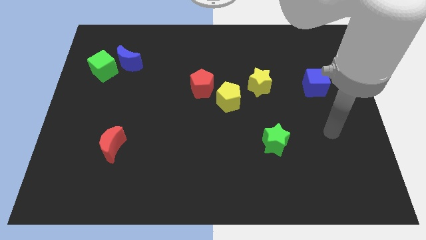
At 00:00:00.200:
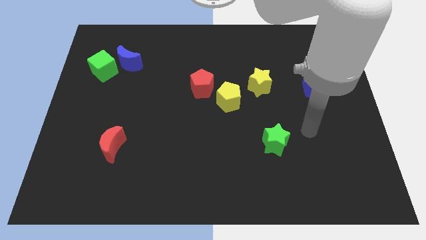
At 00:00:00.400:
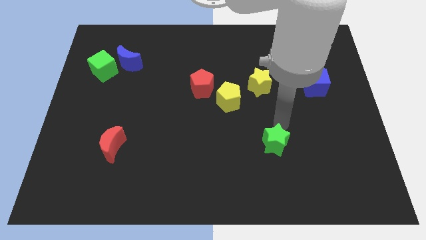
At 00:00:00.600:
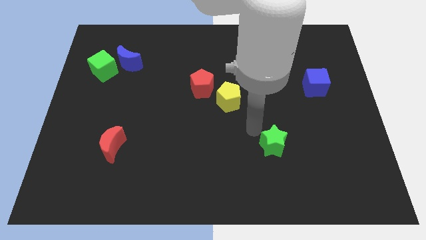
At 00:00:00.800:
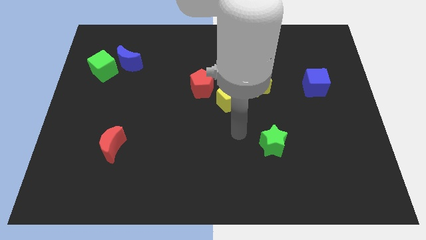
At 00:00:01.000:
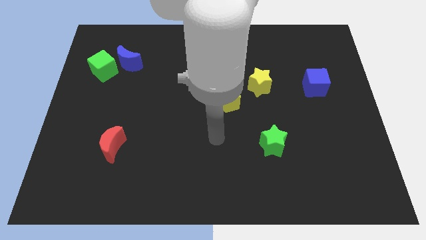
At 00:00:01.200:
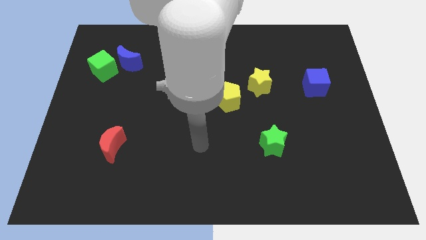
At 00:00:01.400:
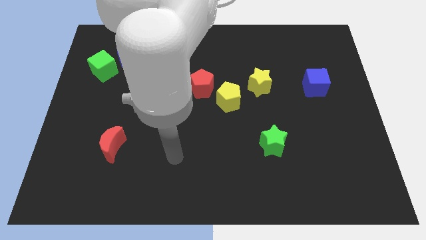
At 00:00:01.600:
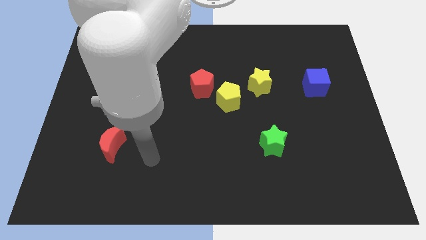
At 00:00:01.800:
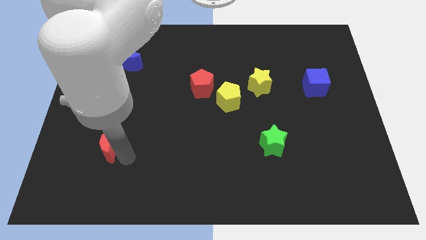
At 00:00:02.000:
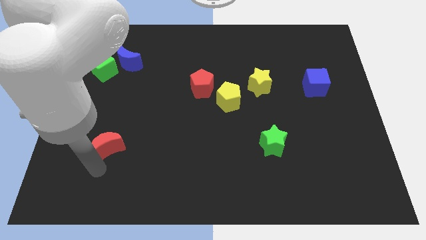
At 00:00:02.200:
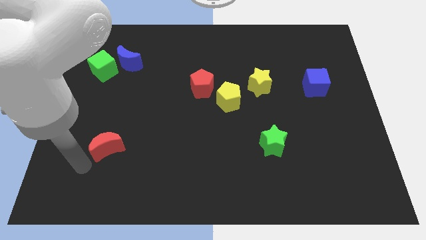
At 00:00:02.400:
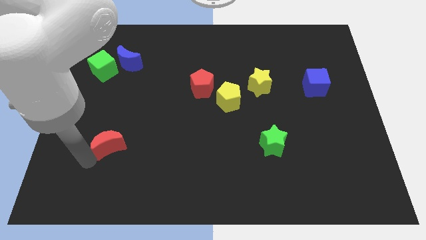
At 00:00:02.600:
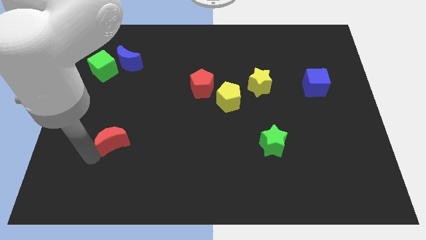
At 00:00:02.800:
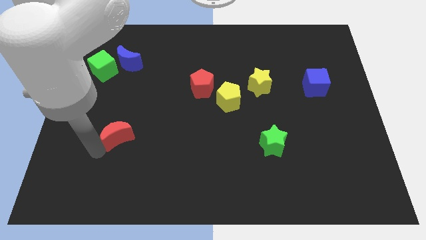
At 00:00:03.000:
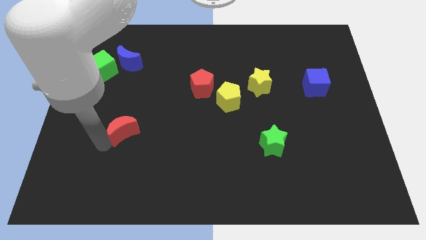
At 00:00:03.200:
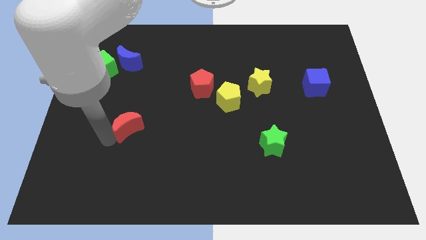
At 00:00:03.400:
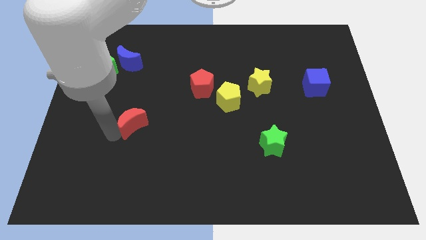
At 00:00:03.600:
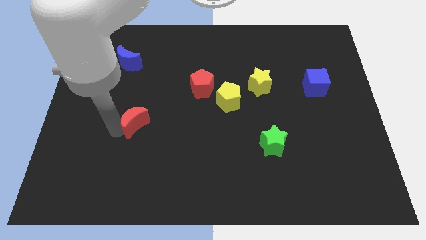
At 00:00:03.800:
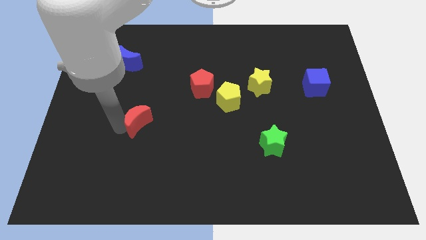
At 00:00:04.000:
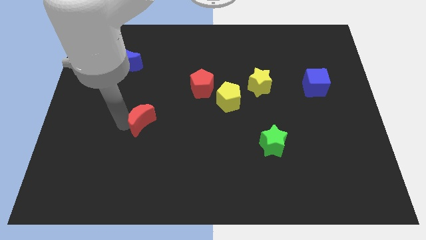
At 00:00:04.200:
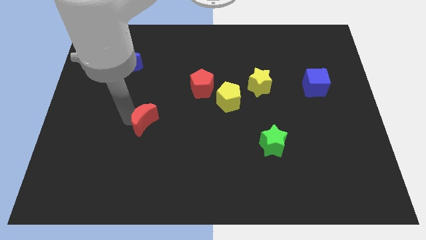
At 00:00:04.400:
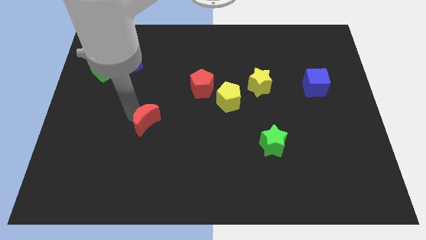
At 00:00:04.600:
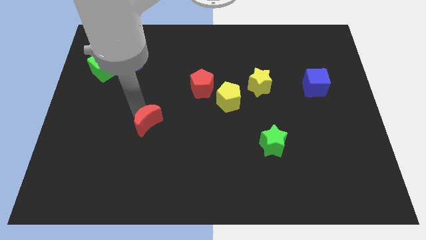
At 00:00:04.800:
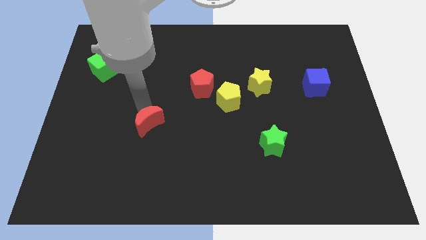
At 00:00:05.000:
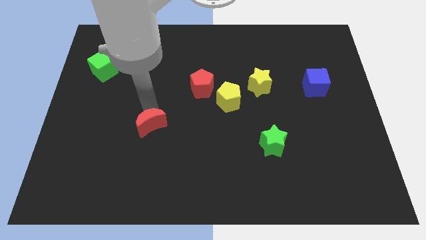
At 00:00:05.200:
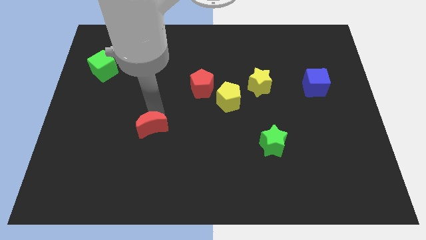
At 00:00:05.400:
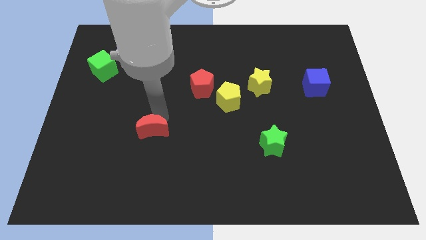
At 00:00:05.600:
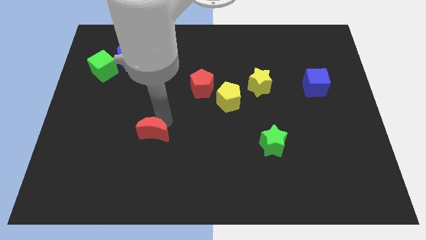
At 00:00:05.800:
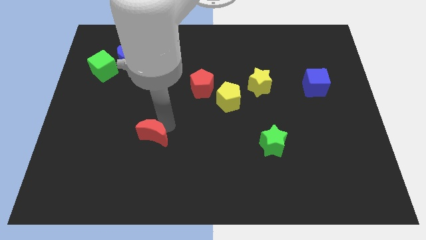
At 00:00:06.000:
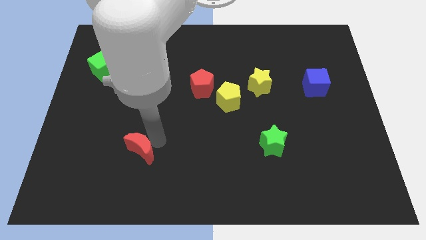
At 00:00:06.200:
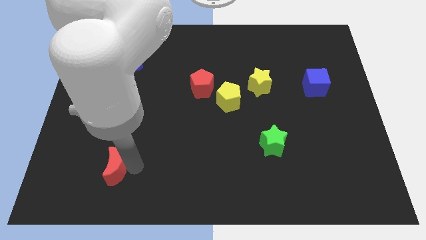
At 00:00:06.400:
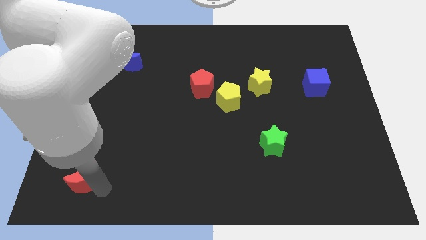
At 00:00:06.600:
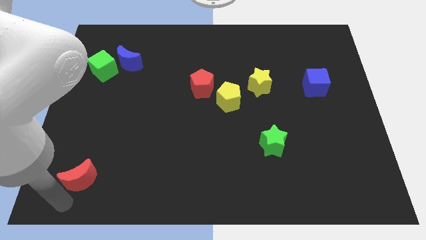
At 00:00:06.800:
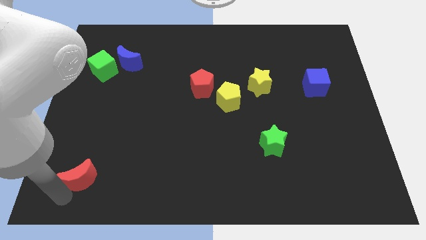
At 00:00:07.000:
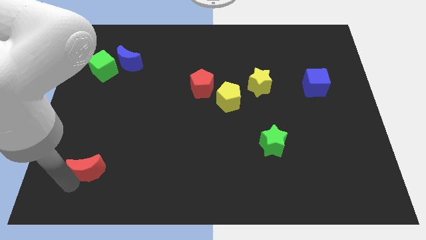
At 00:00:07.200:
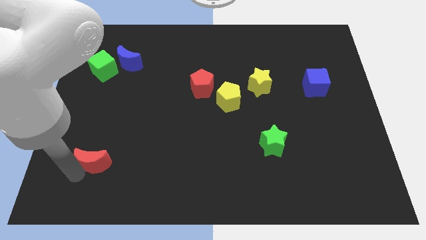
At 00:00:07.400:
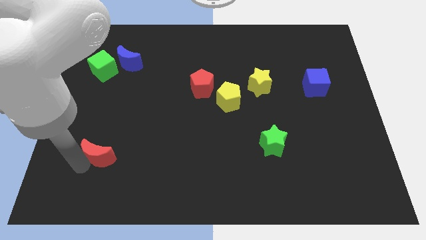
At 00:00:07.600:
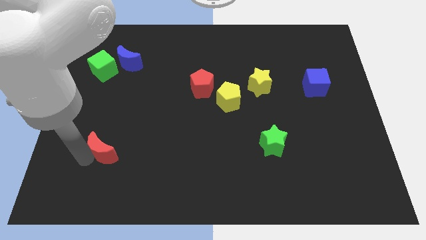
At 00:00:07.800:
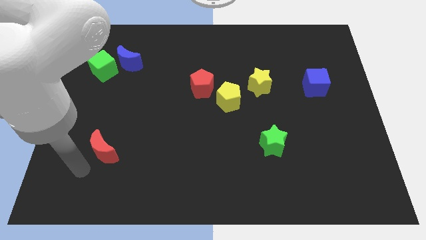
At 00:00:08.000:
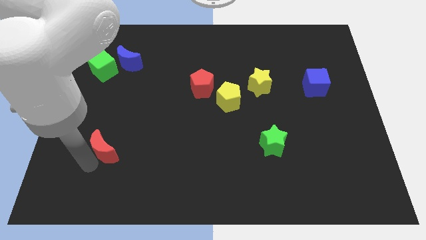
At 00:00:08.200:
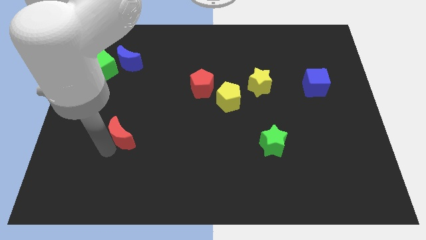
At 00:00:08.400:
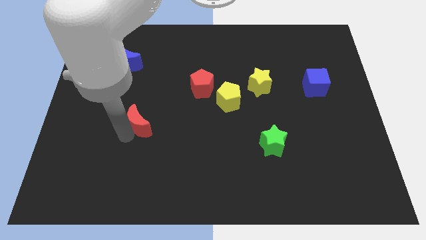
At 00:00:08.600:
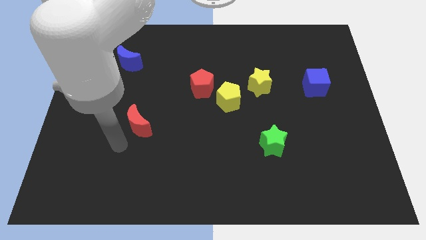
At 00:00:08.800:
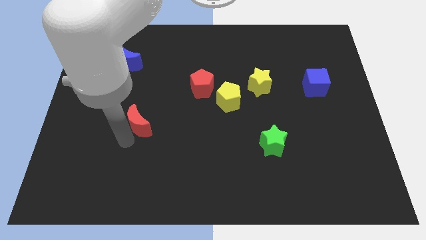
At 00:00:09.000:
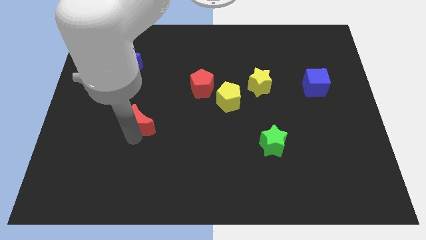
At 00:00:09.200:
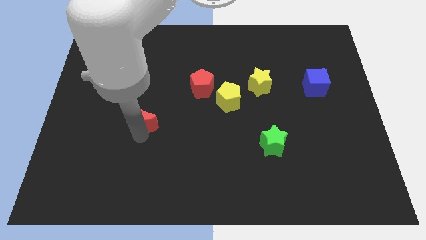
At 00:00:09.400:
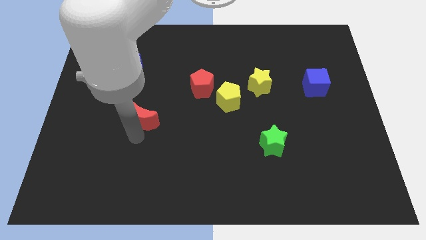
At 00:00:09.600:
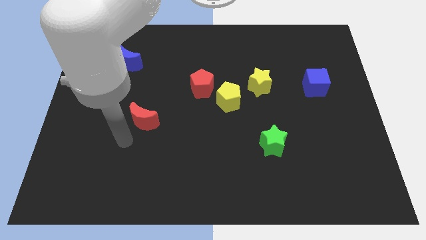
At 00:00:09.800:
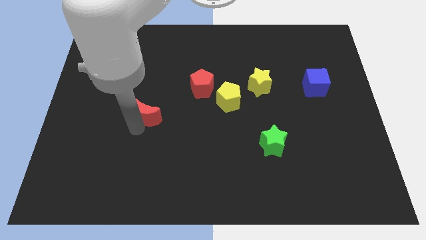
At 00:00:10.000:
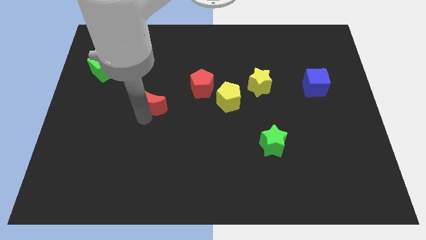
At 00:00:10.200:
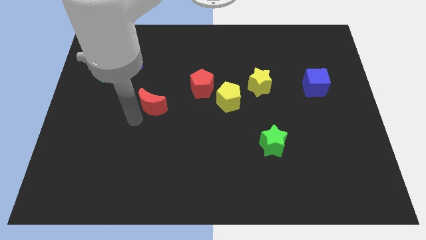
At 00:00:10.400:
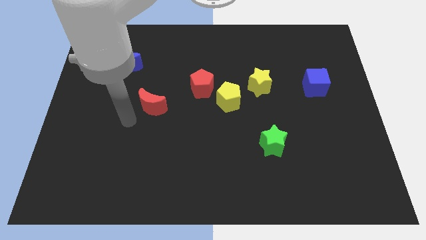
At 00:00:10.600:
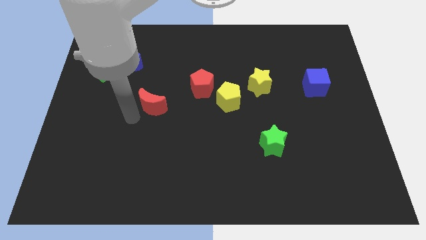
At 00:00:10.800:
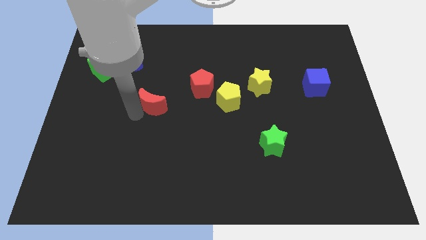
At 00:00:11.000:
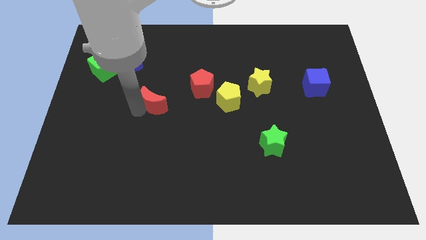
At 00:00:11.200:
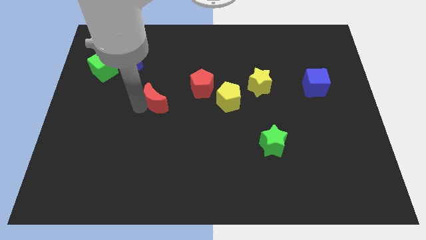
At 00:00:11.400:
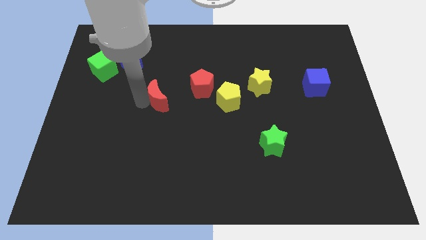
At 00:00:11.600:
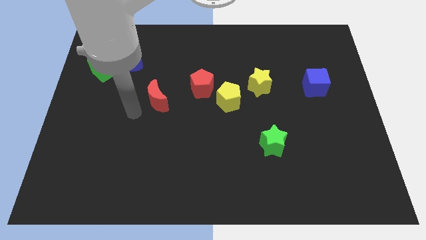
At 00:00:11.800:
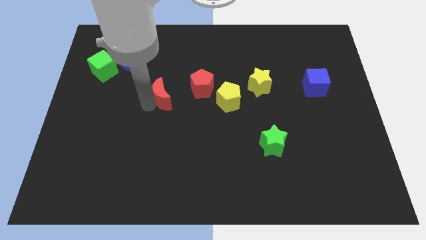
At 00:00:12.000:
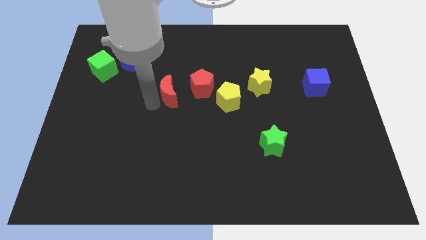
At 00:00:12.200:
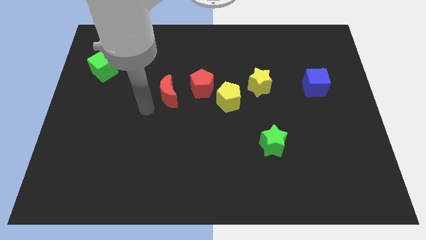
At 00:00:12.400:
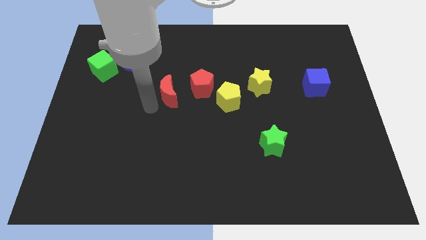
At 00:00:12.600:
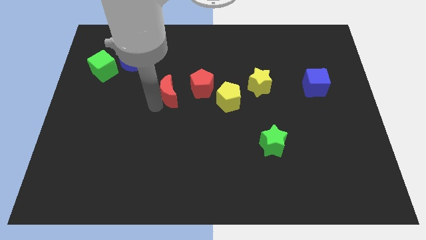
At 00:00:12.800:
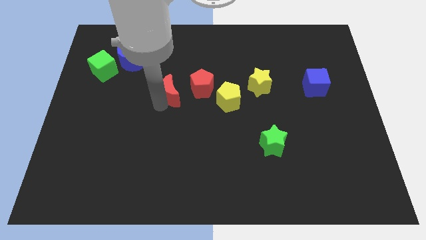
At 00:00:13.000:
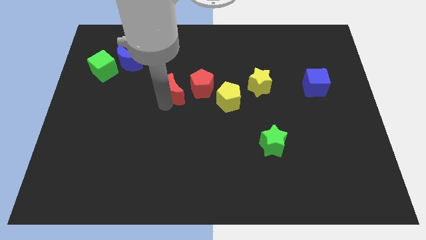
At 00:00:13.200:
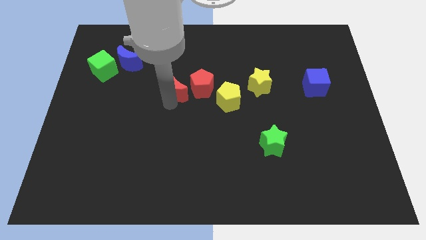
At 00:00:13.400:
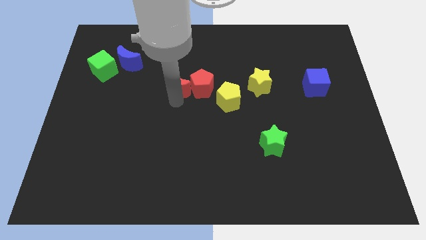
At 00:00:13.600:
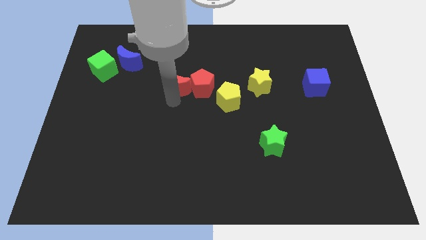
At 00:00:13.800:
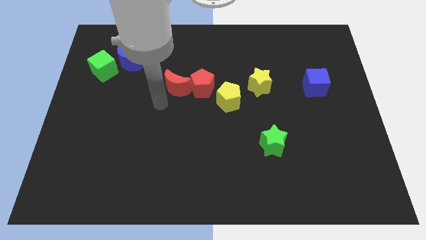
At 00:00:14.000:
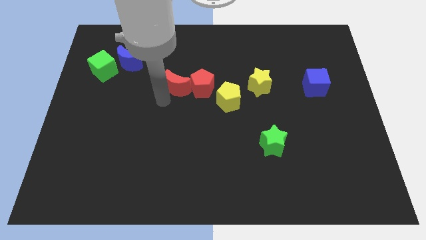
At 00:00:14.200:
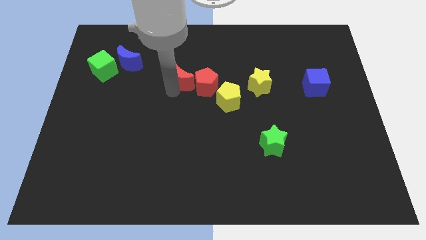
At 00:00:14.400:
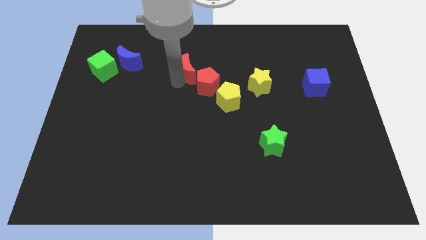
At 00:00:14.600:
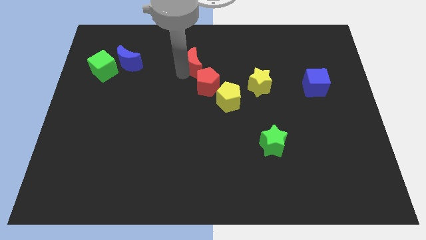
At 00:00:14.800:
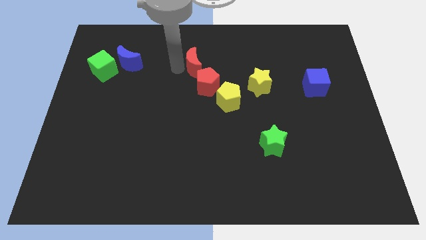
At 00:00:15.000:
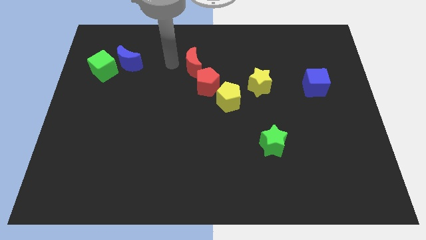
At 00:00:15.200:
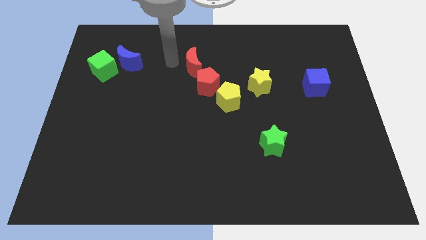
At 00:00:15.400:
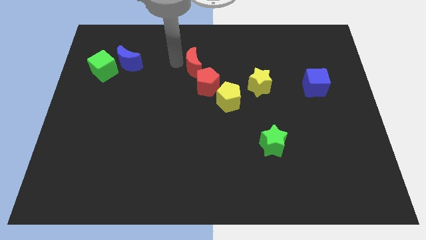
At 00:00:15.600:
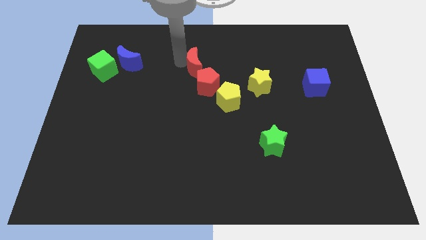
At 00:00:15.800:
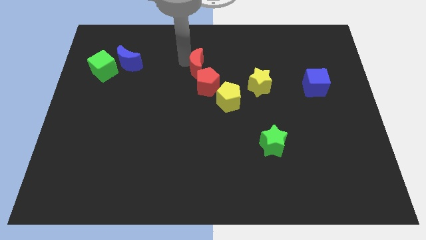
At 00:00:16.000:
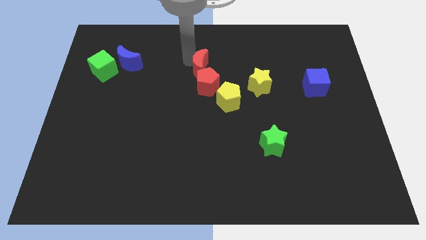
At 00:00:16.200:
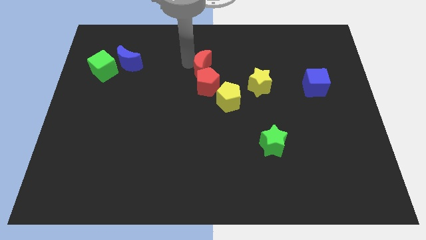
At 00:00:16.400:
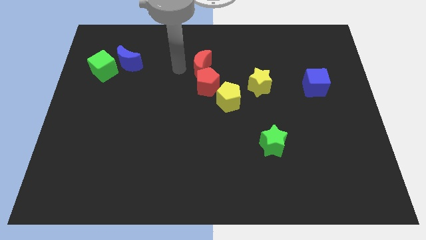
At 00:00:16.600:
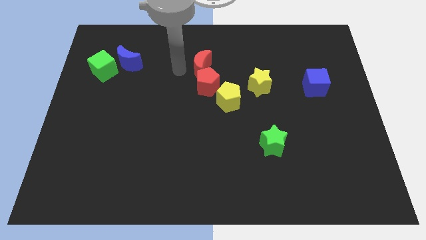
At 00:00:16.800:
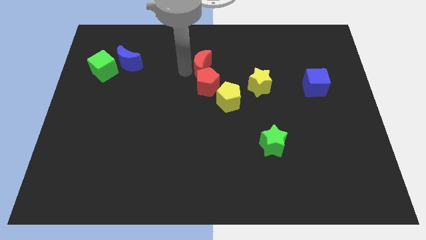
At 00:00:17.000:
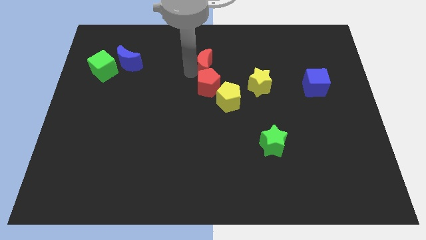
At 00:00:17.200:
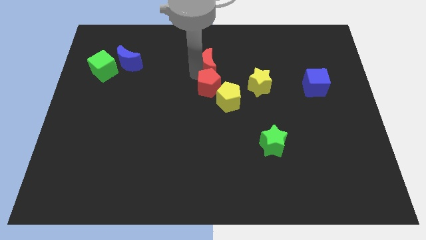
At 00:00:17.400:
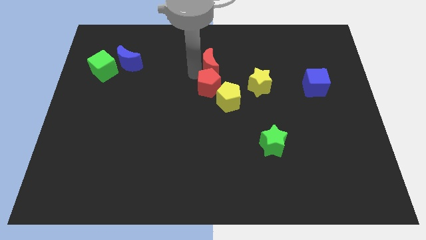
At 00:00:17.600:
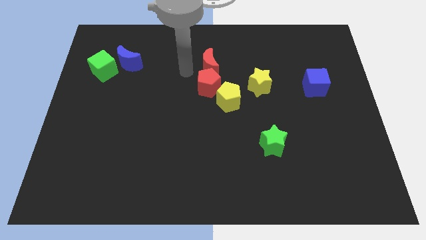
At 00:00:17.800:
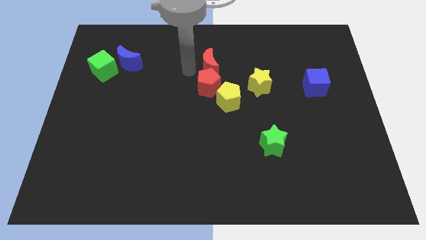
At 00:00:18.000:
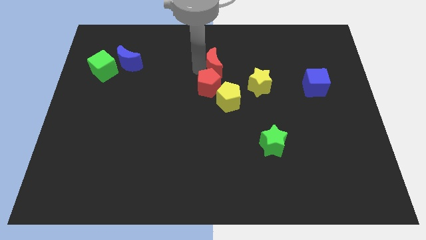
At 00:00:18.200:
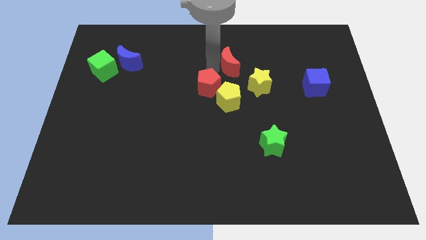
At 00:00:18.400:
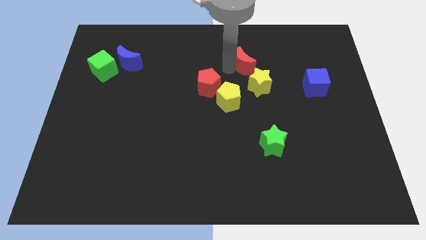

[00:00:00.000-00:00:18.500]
put the red moon above the yellow star
